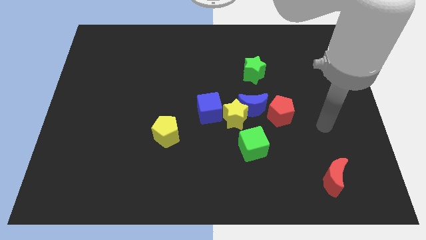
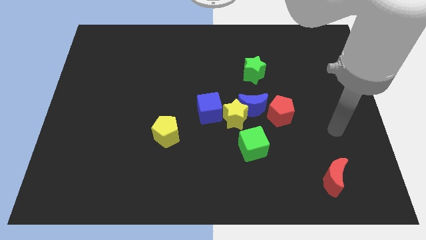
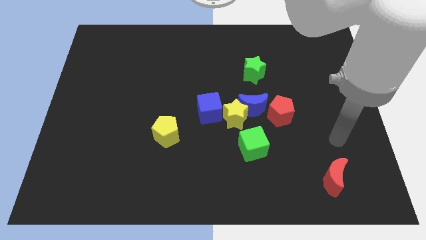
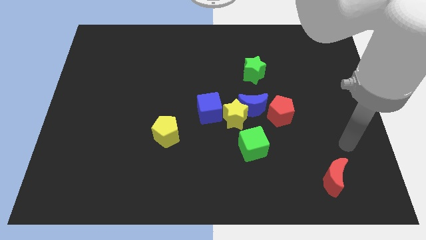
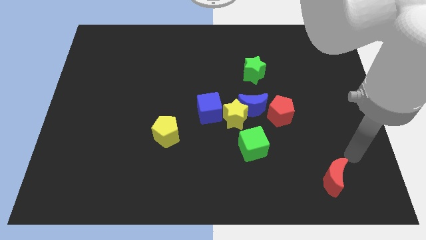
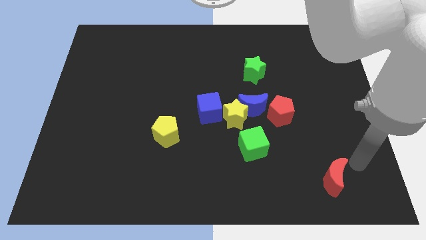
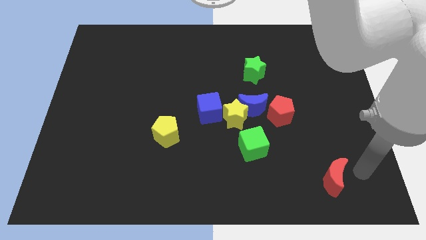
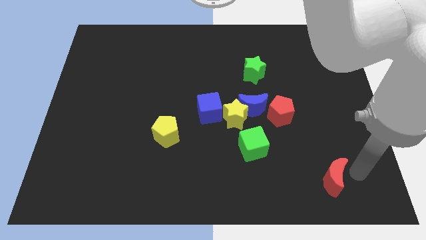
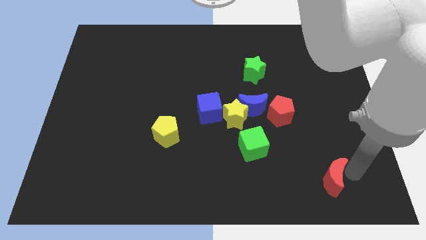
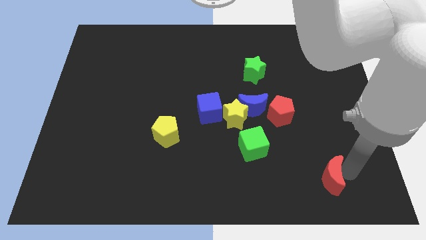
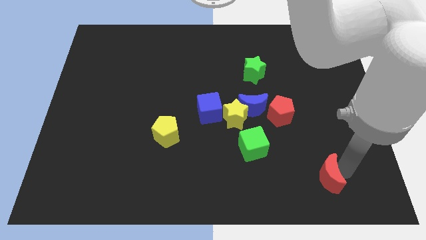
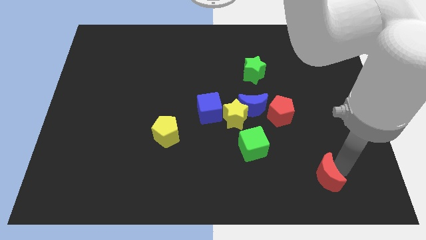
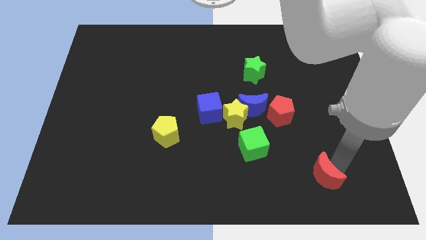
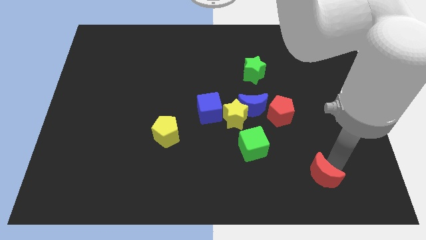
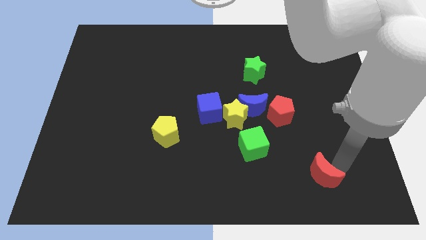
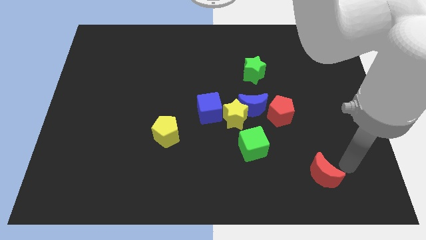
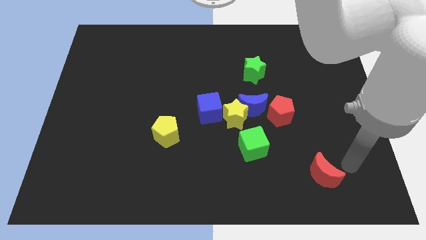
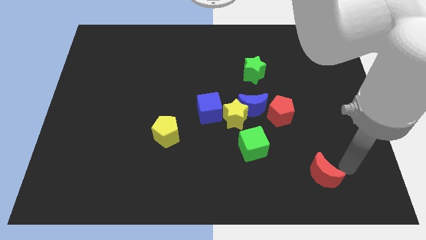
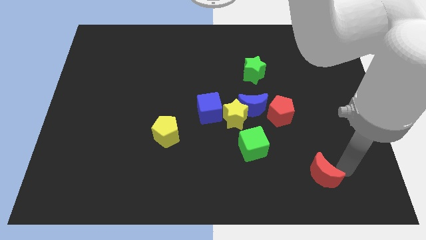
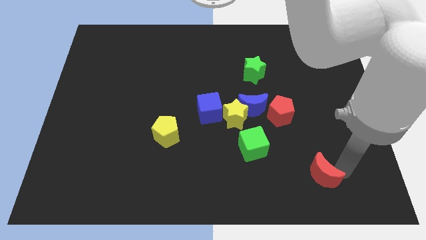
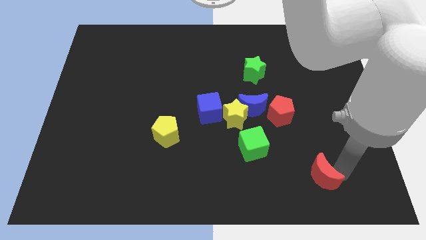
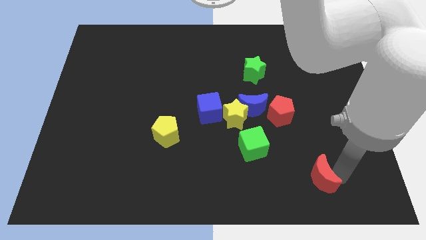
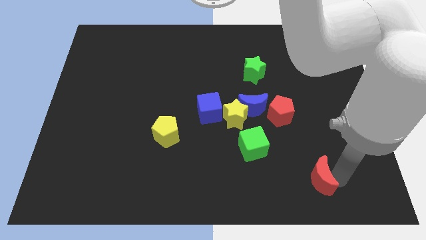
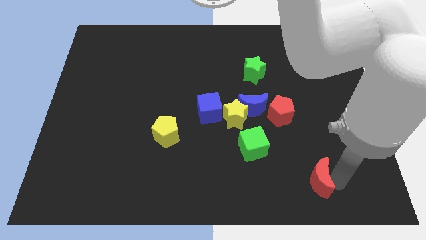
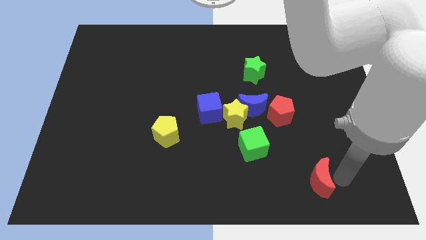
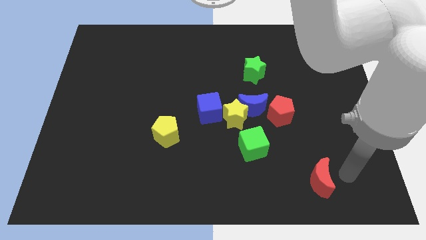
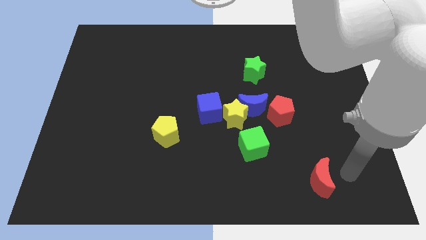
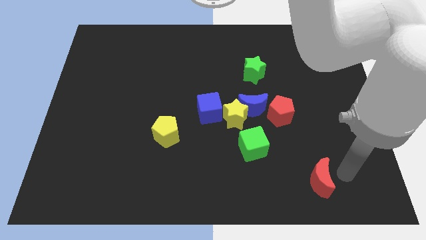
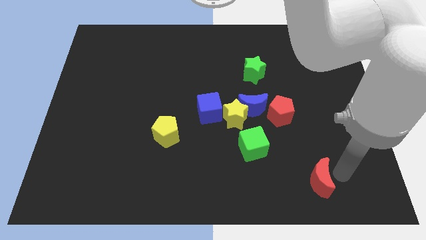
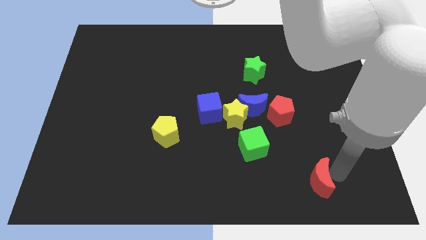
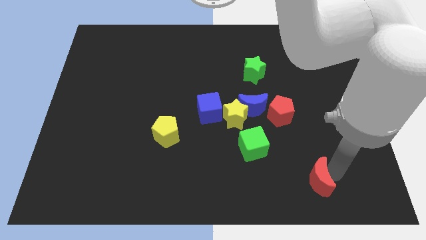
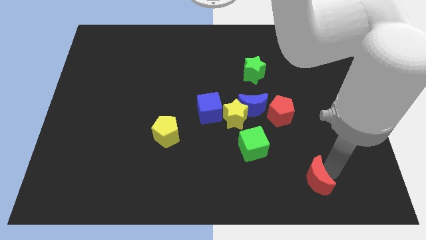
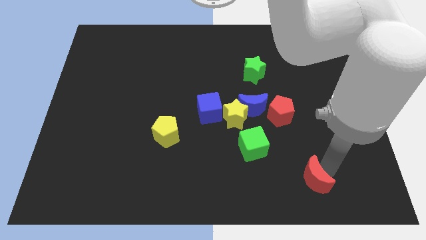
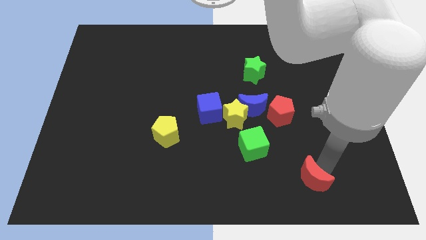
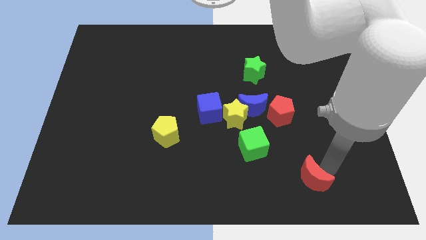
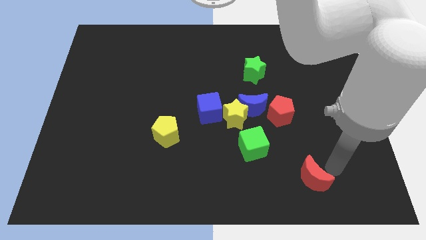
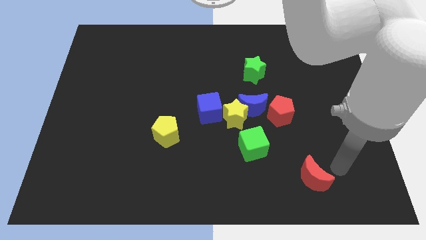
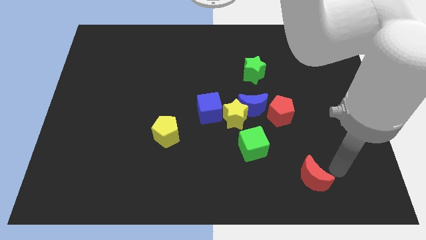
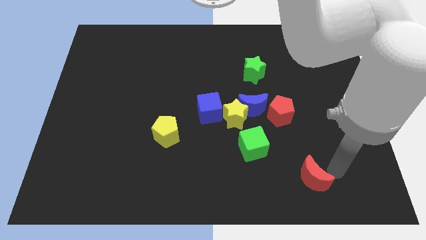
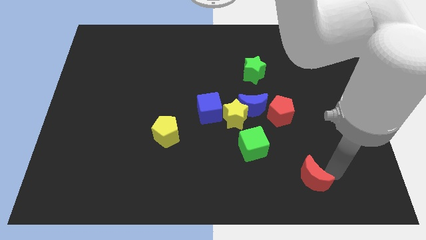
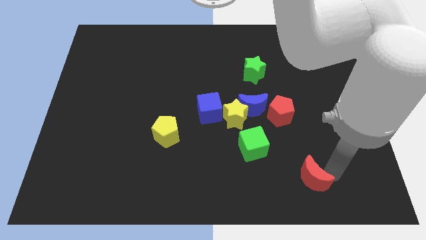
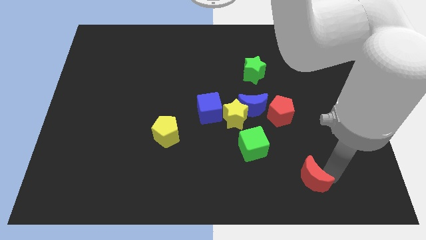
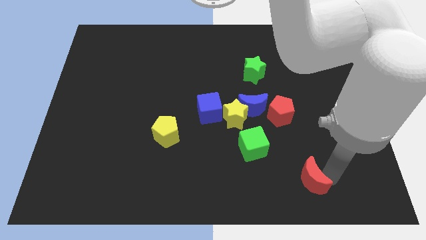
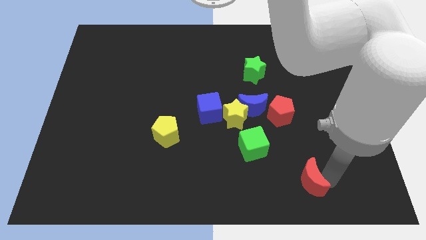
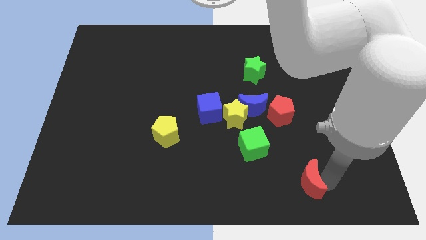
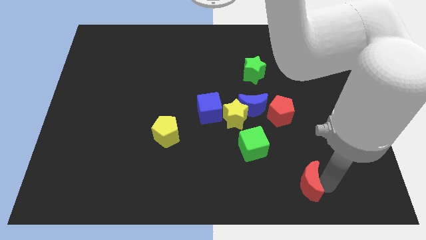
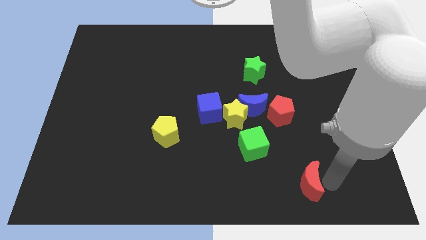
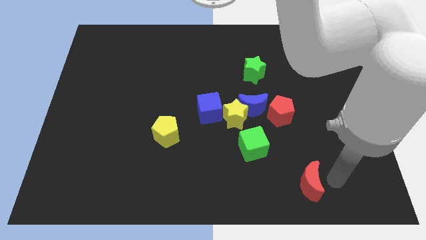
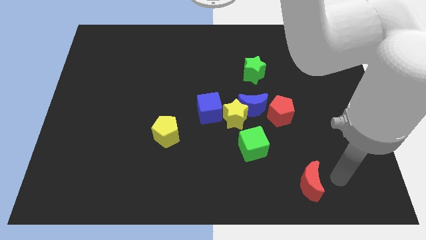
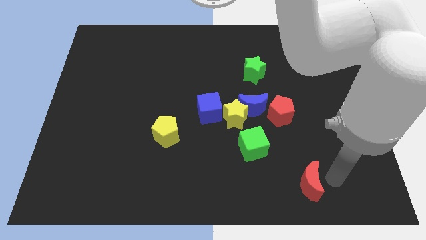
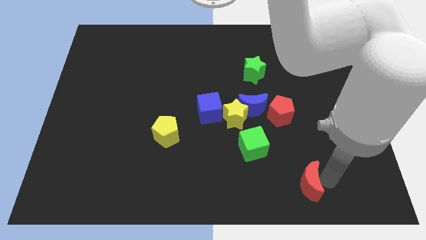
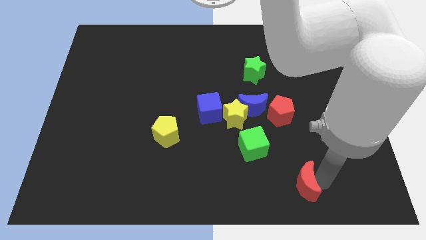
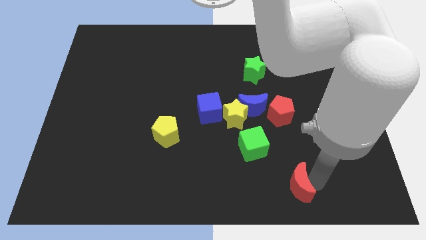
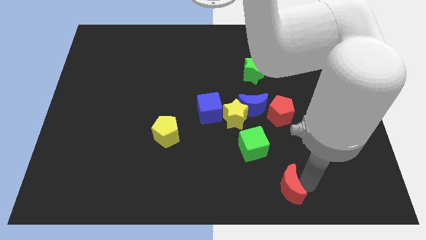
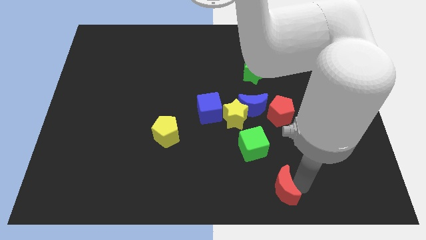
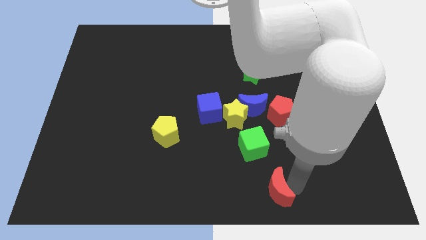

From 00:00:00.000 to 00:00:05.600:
move the red moon to the bottom side
